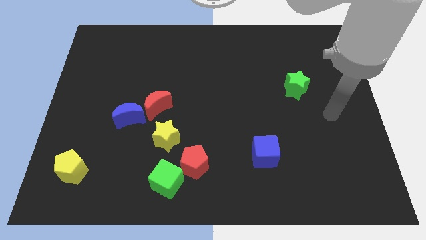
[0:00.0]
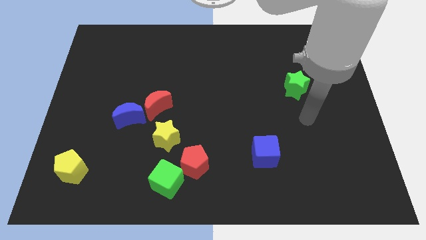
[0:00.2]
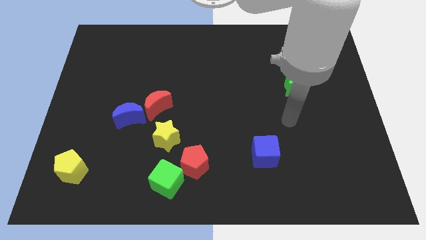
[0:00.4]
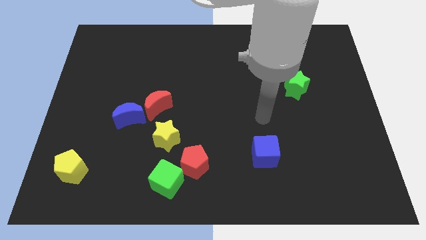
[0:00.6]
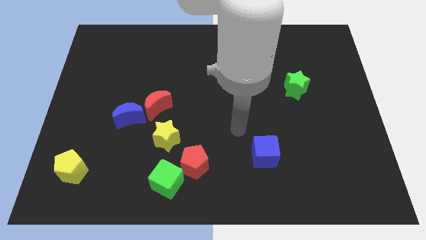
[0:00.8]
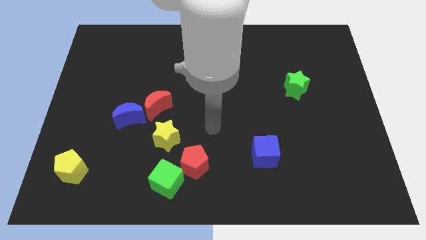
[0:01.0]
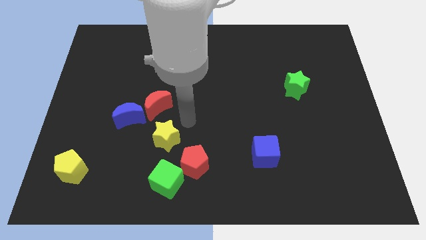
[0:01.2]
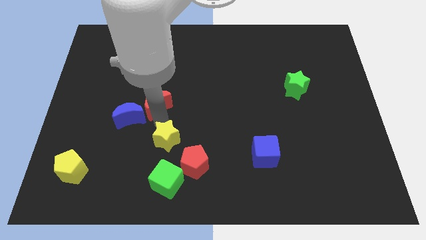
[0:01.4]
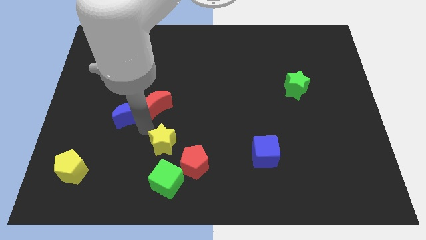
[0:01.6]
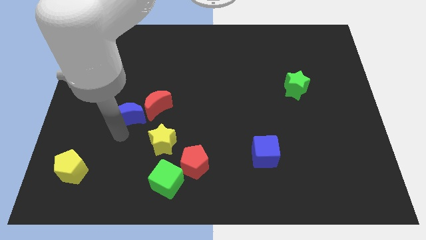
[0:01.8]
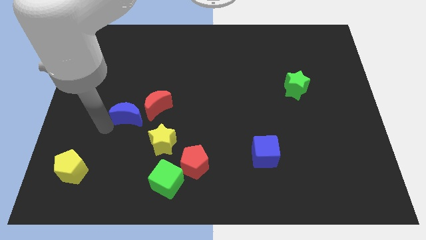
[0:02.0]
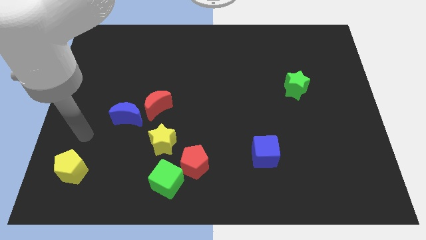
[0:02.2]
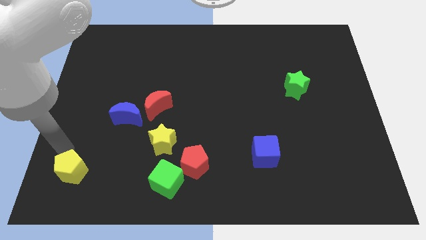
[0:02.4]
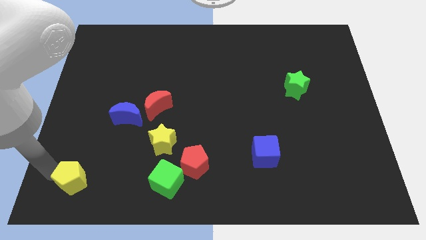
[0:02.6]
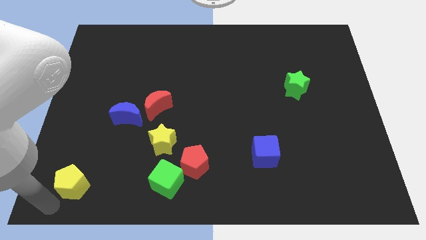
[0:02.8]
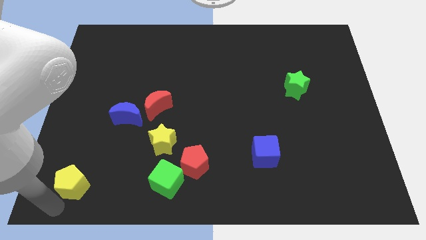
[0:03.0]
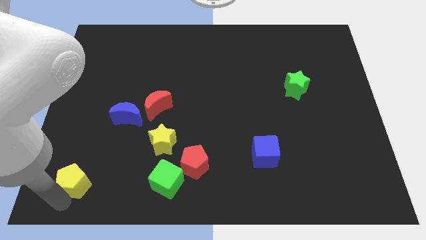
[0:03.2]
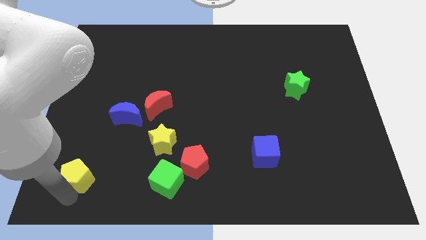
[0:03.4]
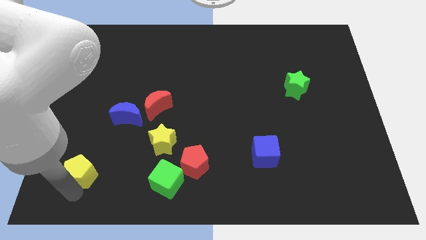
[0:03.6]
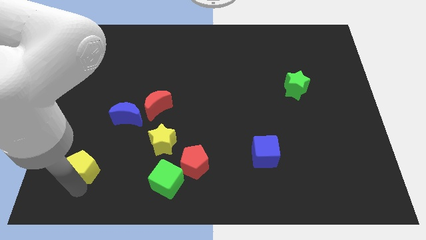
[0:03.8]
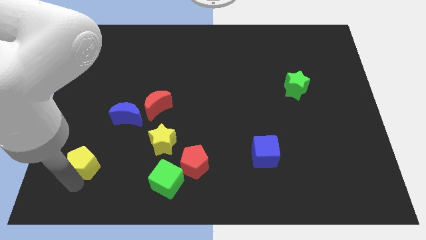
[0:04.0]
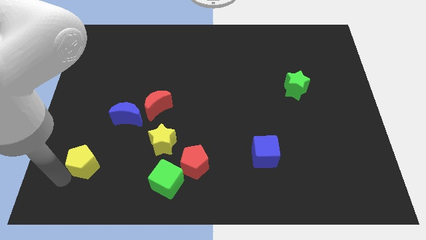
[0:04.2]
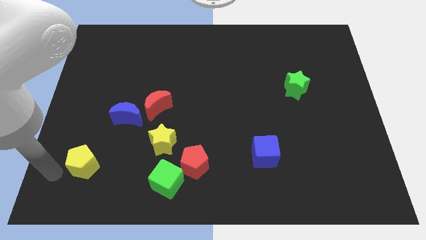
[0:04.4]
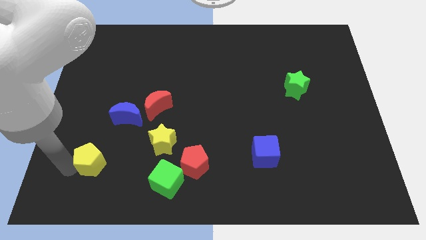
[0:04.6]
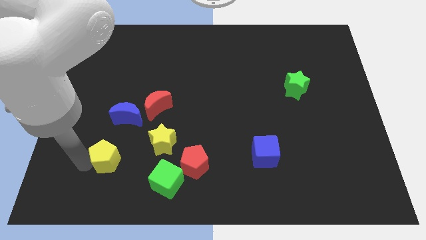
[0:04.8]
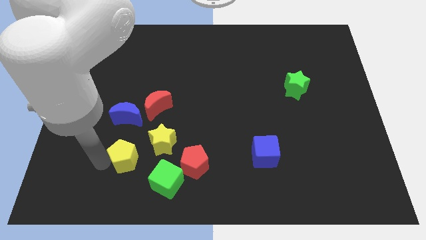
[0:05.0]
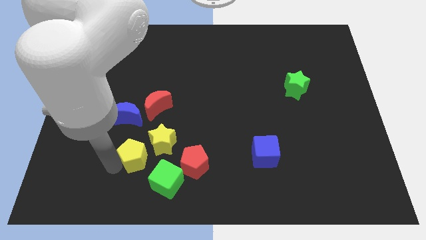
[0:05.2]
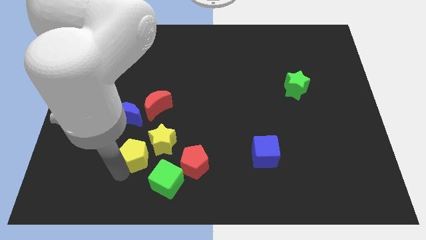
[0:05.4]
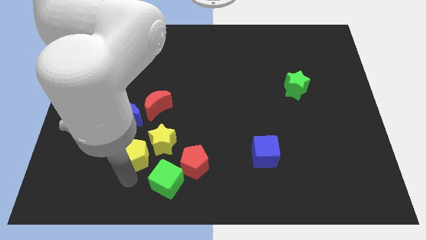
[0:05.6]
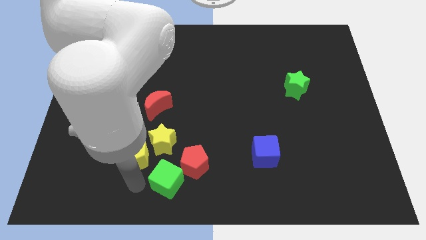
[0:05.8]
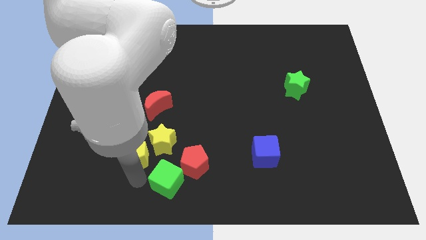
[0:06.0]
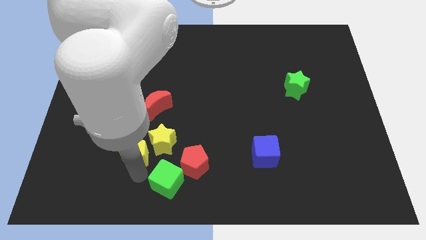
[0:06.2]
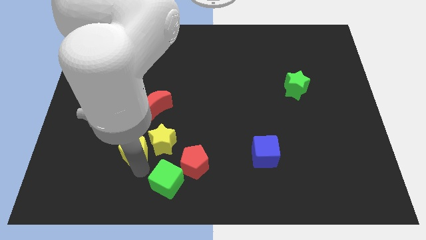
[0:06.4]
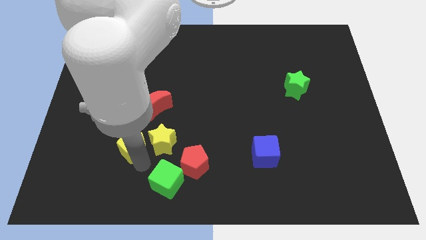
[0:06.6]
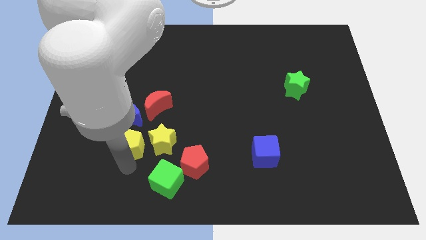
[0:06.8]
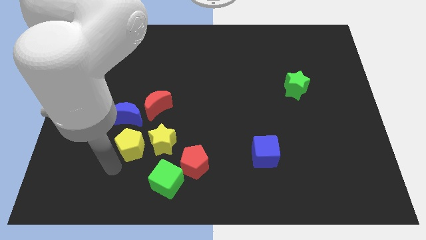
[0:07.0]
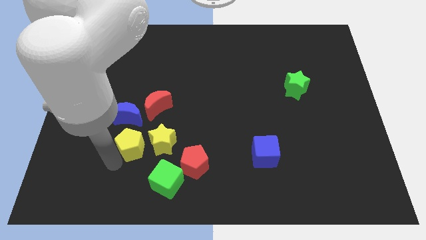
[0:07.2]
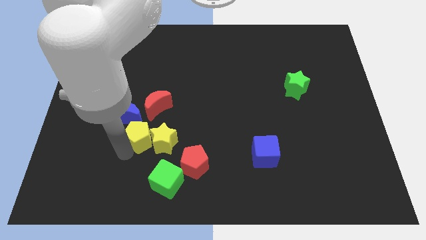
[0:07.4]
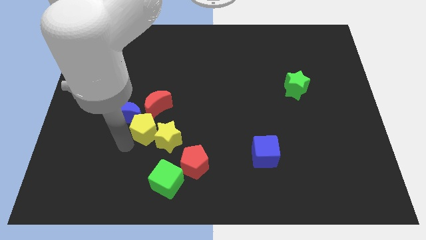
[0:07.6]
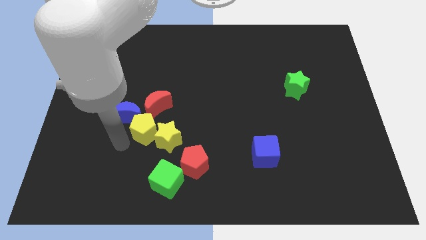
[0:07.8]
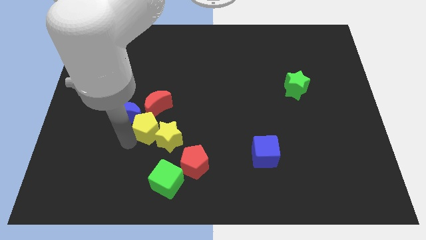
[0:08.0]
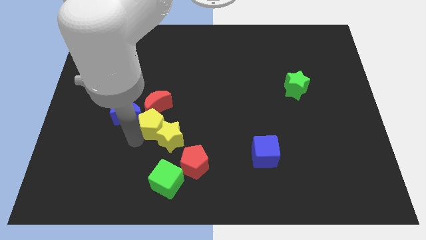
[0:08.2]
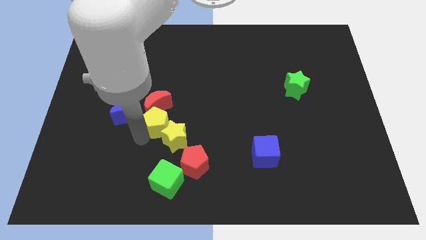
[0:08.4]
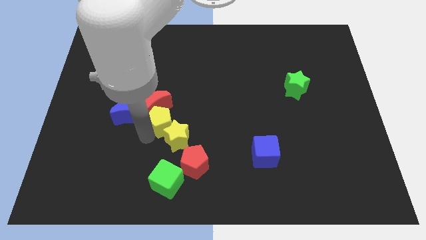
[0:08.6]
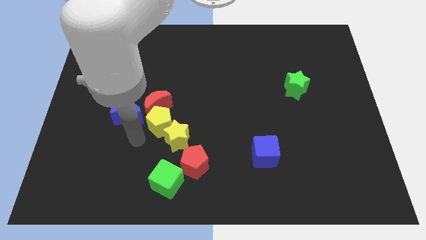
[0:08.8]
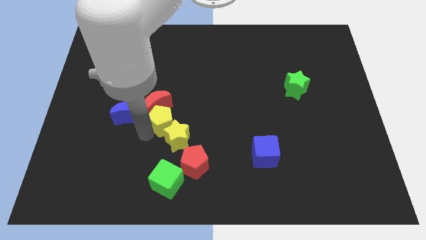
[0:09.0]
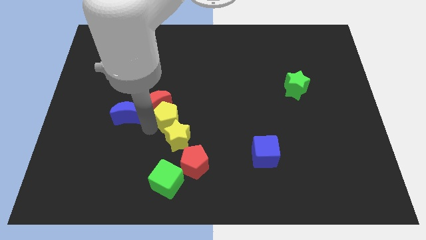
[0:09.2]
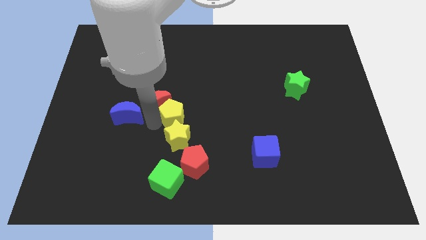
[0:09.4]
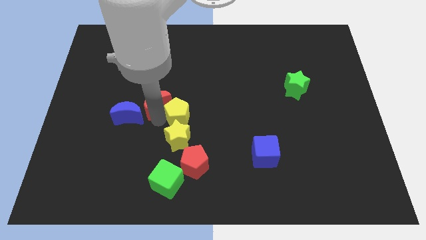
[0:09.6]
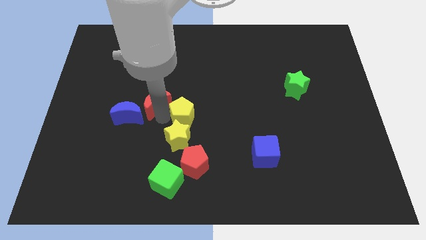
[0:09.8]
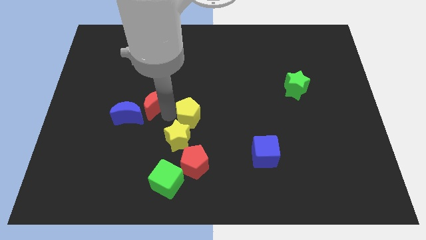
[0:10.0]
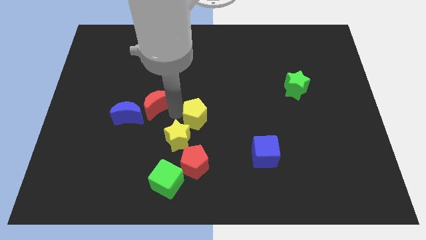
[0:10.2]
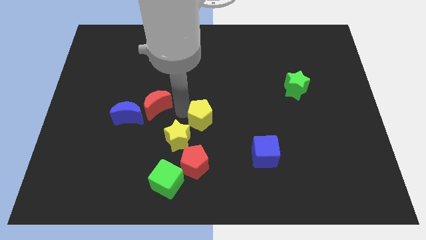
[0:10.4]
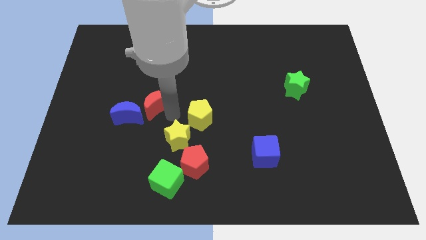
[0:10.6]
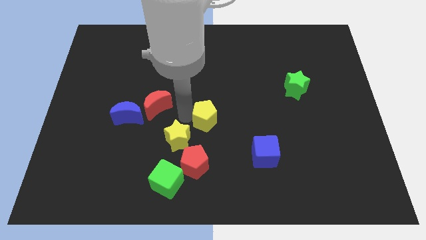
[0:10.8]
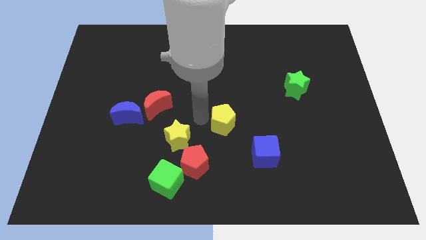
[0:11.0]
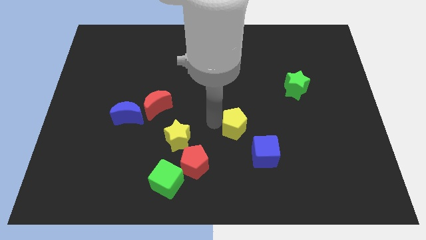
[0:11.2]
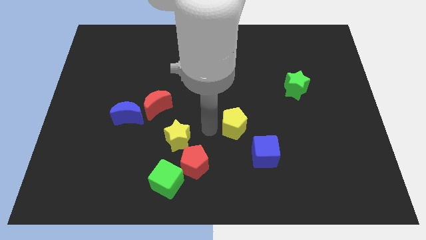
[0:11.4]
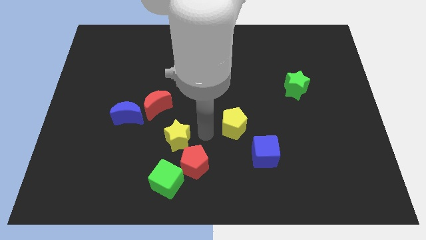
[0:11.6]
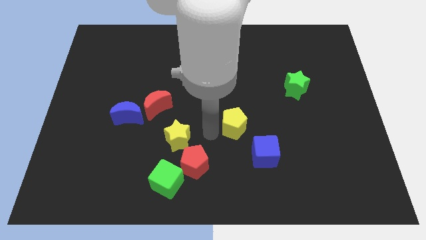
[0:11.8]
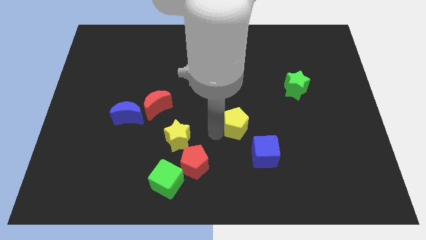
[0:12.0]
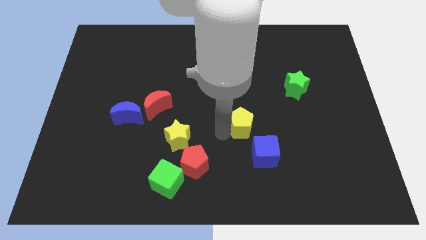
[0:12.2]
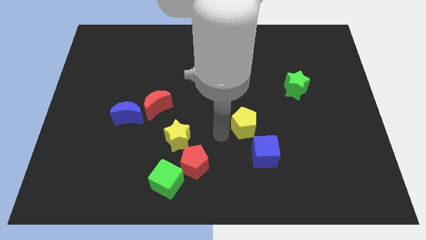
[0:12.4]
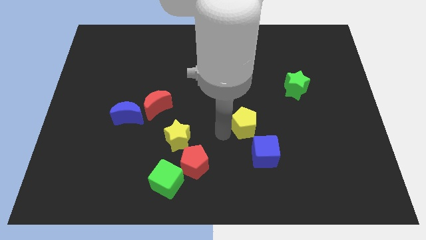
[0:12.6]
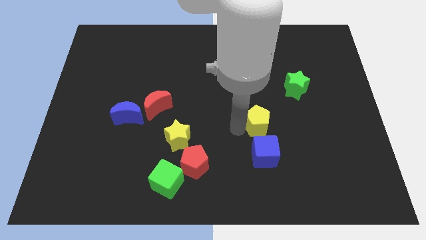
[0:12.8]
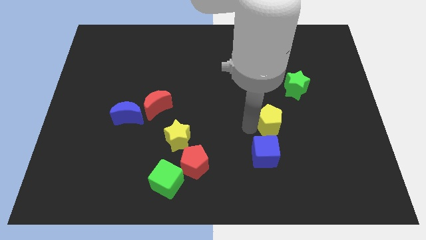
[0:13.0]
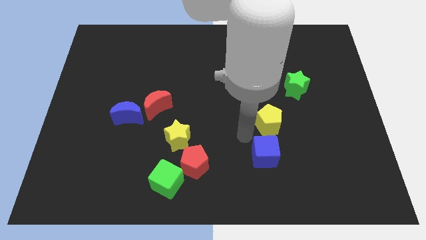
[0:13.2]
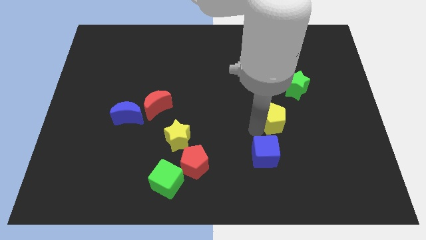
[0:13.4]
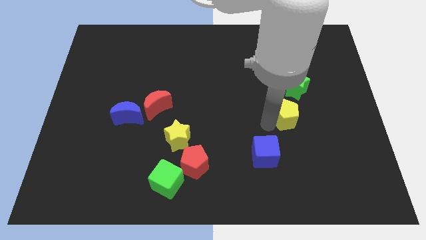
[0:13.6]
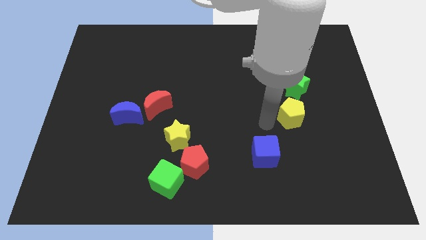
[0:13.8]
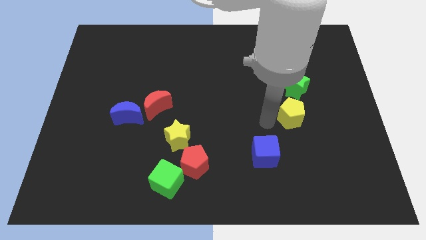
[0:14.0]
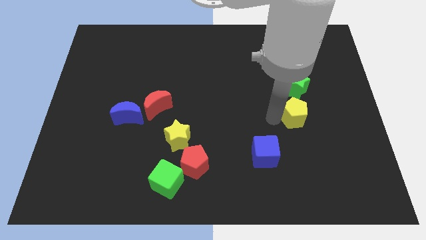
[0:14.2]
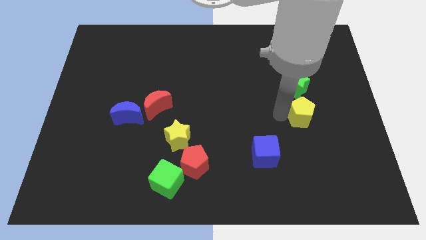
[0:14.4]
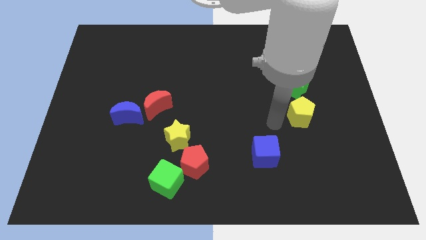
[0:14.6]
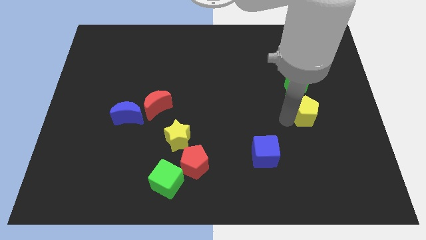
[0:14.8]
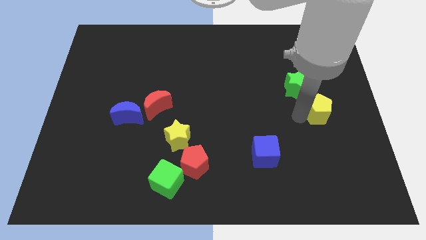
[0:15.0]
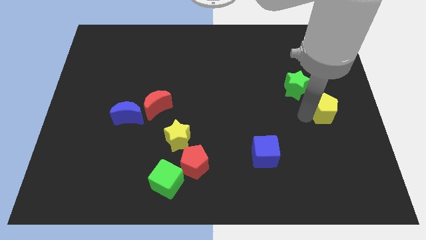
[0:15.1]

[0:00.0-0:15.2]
move the yellow pentagon to the center right
